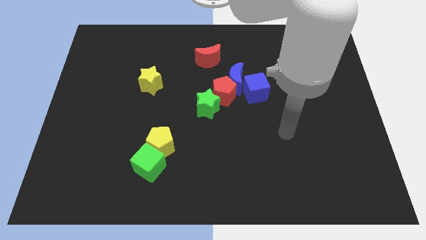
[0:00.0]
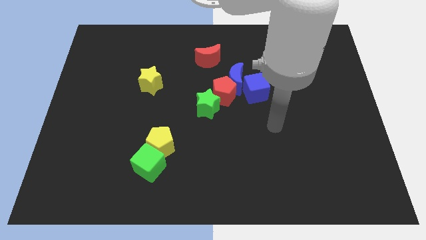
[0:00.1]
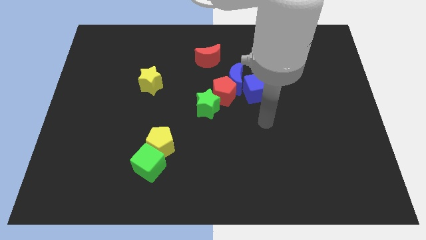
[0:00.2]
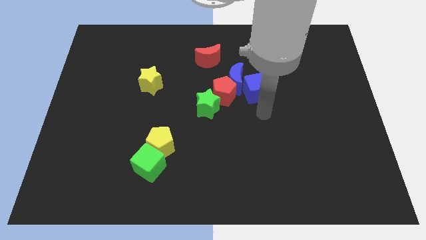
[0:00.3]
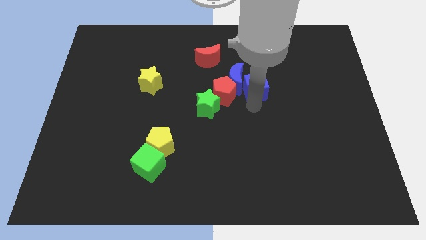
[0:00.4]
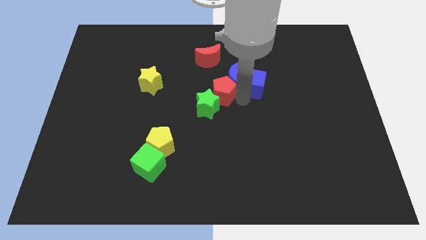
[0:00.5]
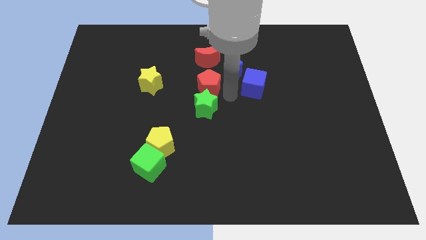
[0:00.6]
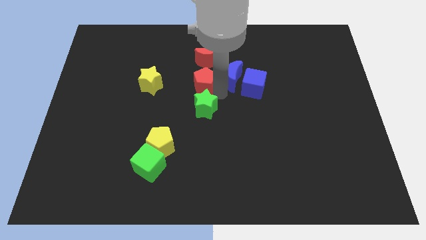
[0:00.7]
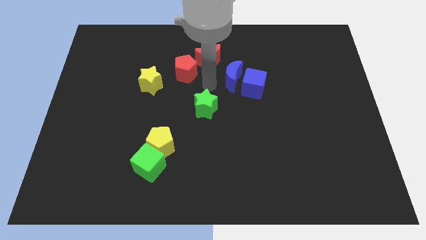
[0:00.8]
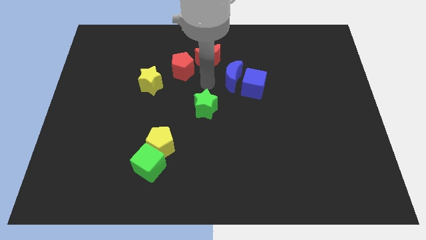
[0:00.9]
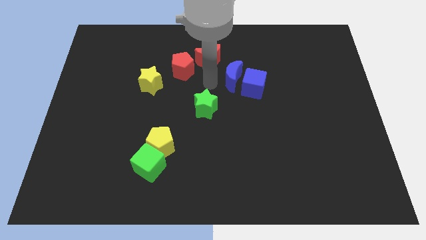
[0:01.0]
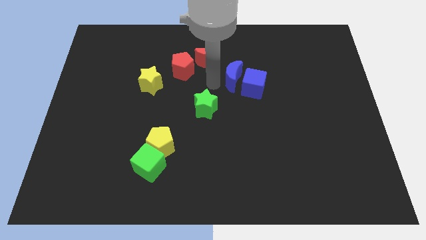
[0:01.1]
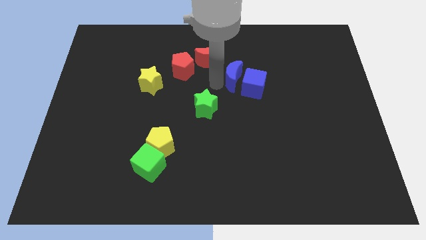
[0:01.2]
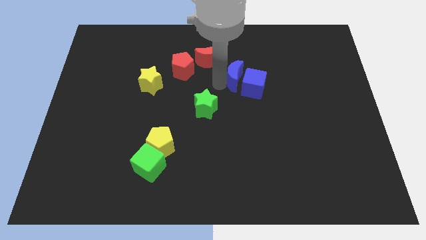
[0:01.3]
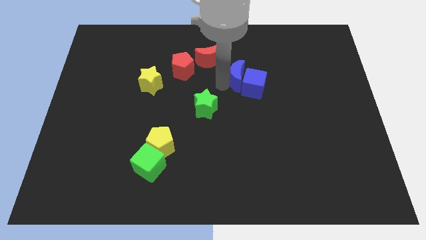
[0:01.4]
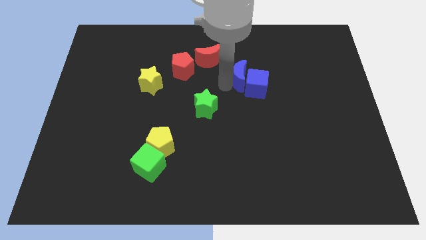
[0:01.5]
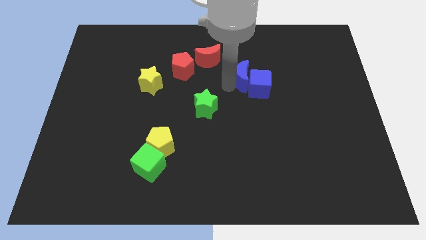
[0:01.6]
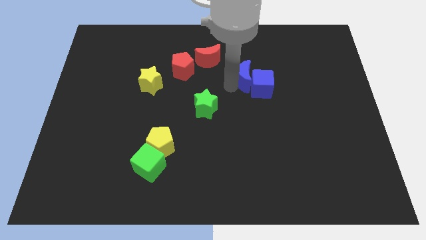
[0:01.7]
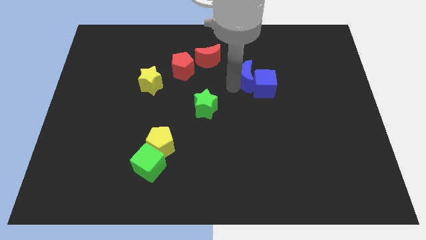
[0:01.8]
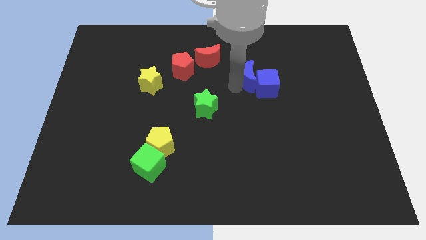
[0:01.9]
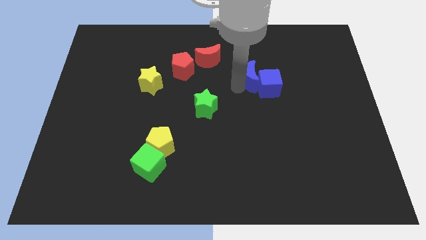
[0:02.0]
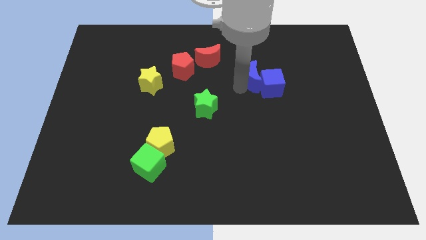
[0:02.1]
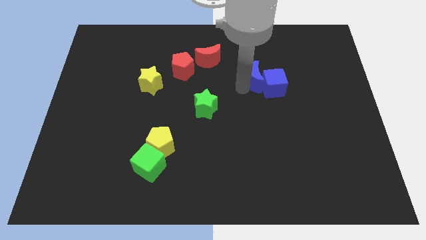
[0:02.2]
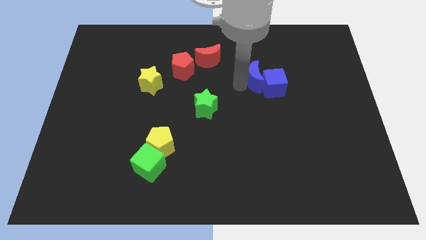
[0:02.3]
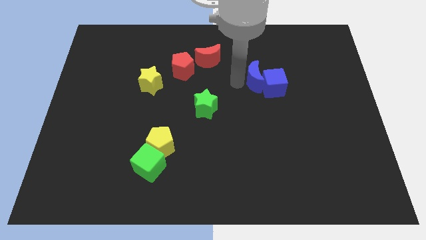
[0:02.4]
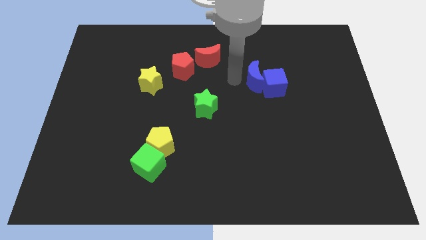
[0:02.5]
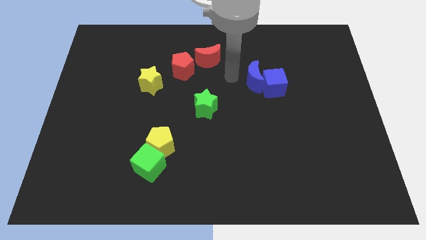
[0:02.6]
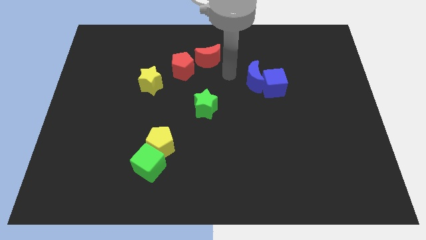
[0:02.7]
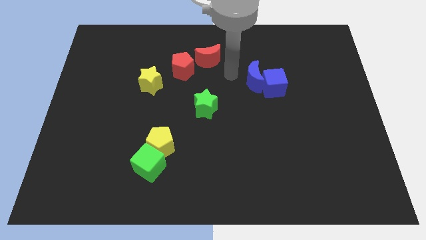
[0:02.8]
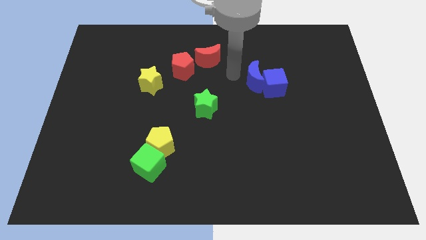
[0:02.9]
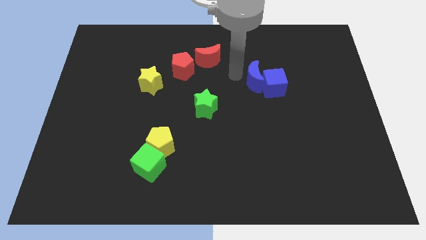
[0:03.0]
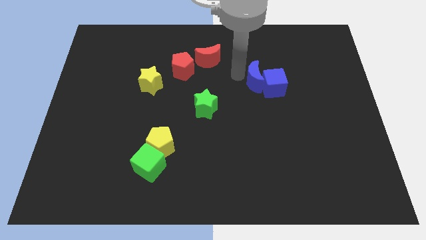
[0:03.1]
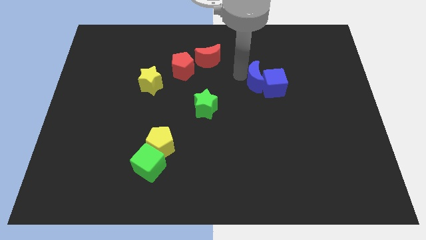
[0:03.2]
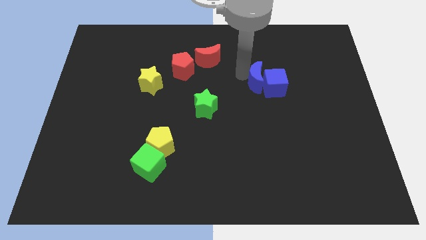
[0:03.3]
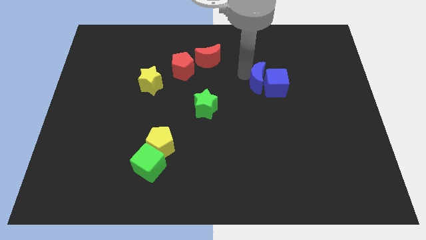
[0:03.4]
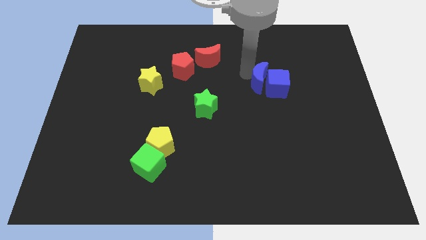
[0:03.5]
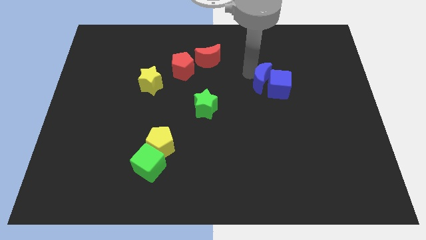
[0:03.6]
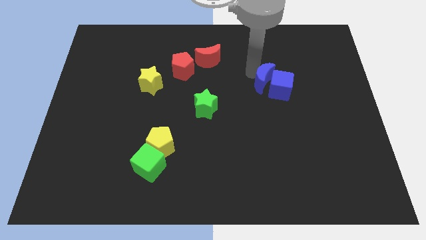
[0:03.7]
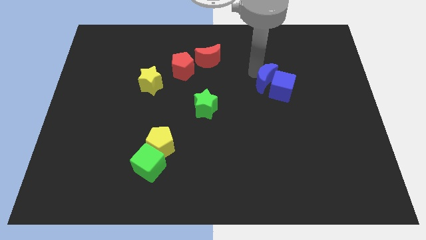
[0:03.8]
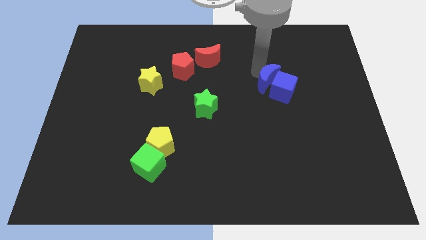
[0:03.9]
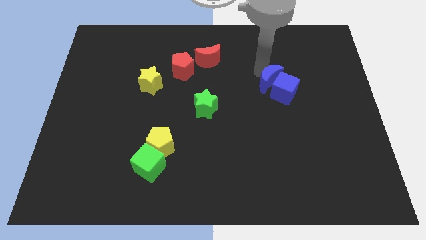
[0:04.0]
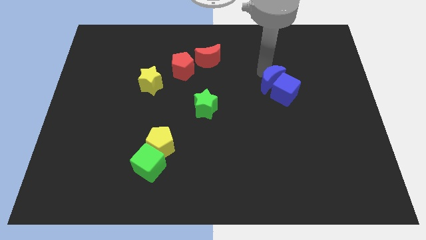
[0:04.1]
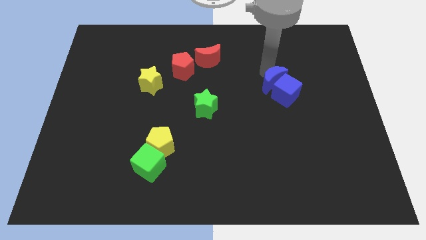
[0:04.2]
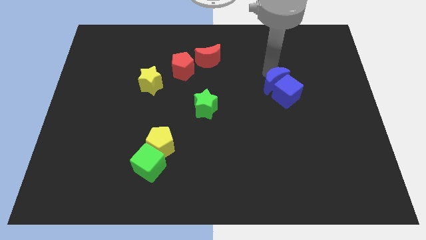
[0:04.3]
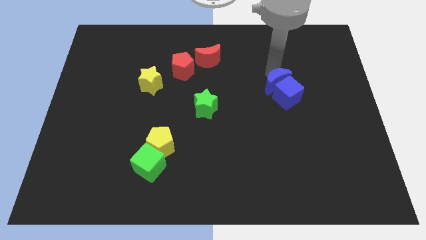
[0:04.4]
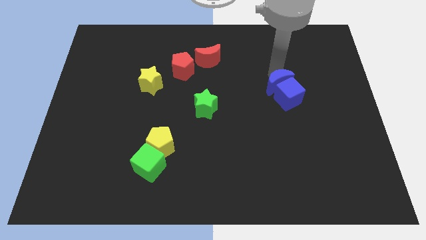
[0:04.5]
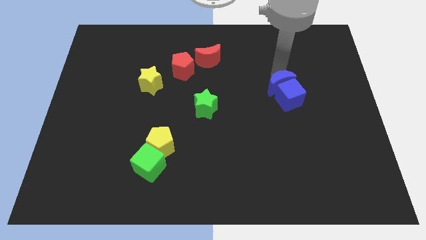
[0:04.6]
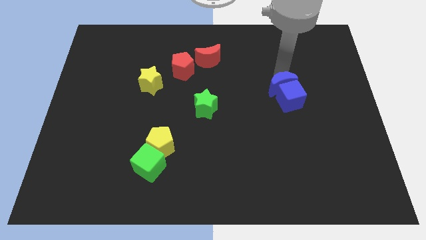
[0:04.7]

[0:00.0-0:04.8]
move the blue moon somewhat diagonally downwards and to the right

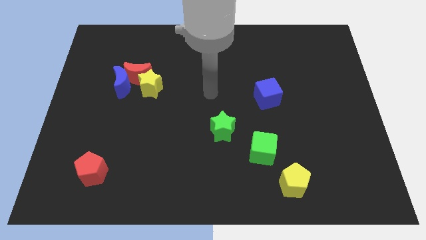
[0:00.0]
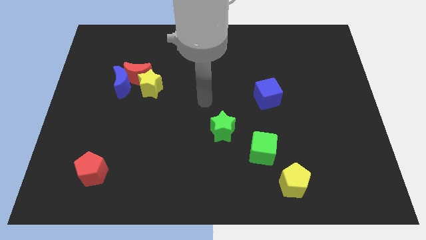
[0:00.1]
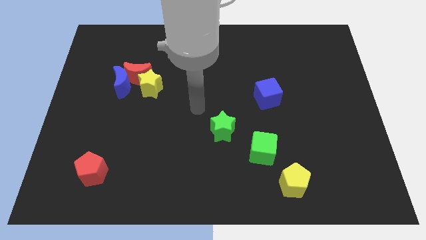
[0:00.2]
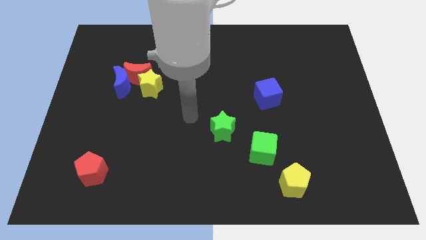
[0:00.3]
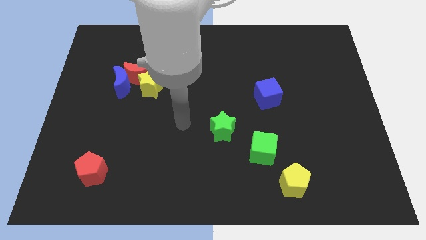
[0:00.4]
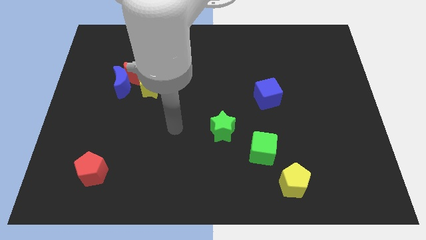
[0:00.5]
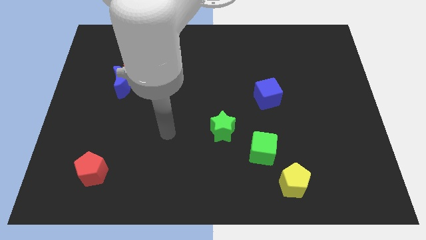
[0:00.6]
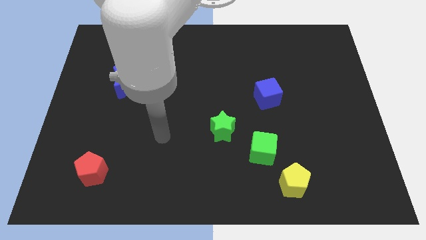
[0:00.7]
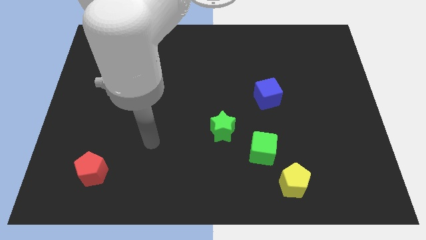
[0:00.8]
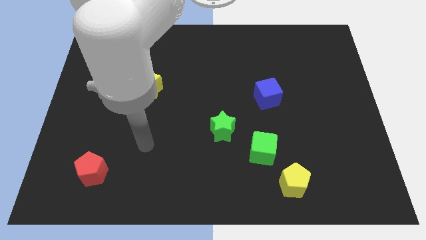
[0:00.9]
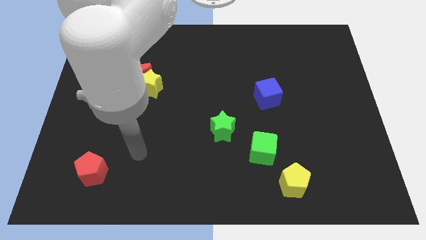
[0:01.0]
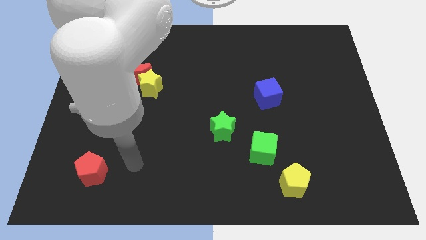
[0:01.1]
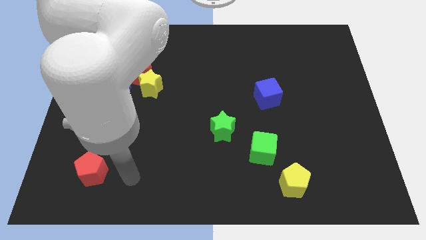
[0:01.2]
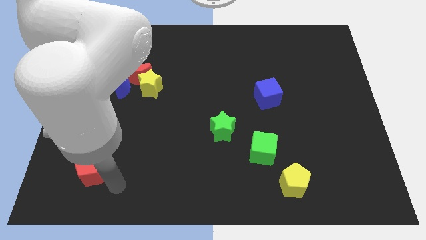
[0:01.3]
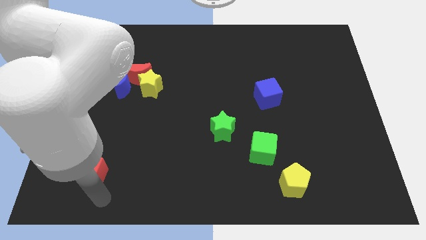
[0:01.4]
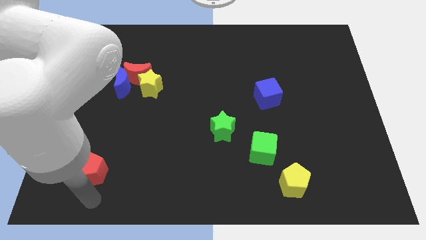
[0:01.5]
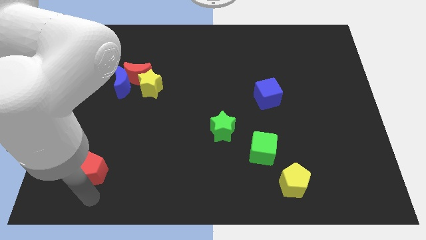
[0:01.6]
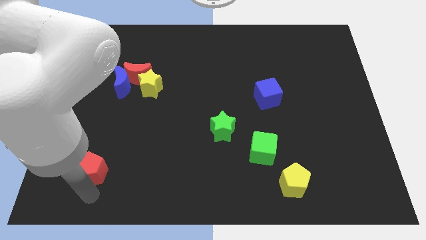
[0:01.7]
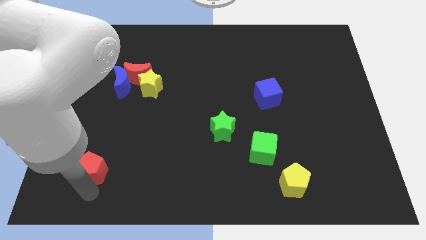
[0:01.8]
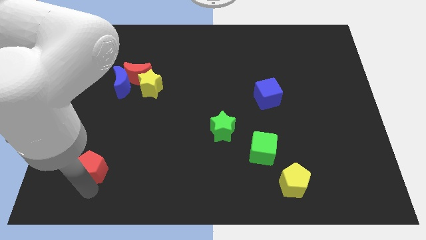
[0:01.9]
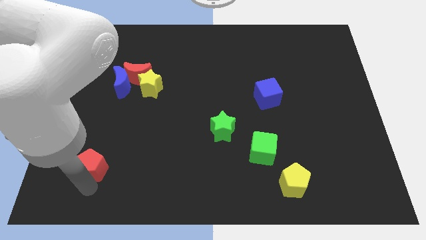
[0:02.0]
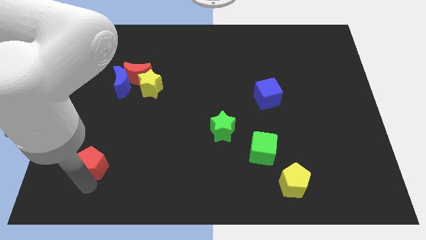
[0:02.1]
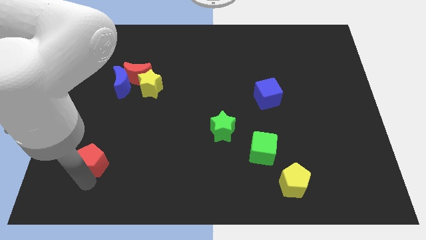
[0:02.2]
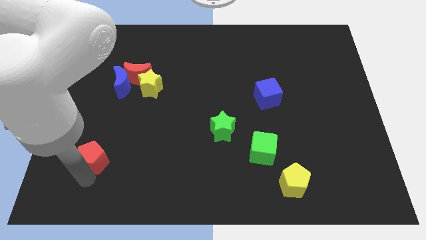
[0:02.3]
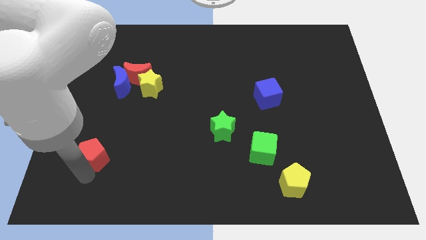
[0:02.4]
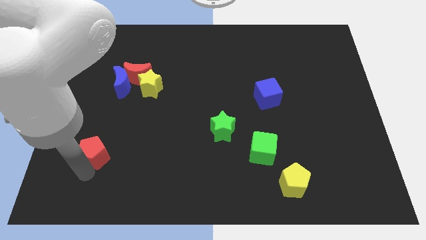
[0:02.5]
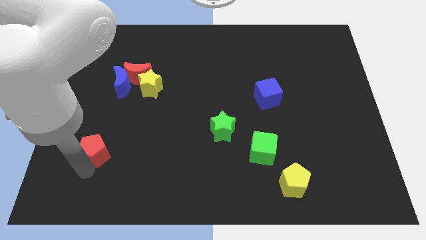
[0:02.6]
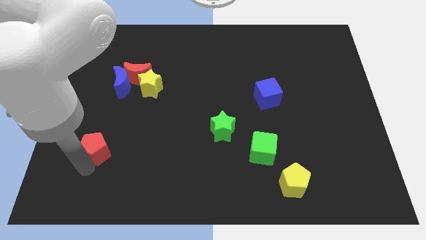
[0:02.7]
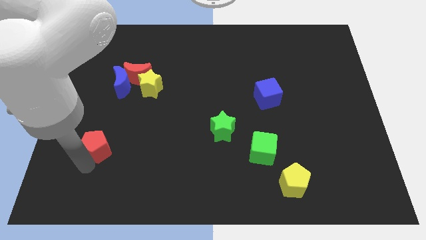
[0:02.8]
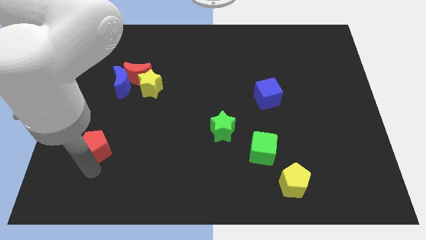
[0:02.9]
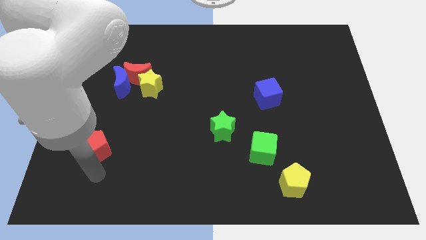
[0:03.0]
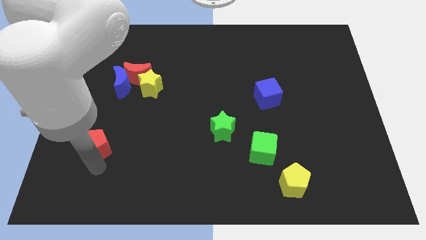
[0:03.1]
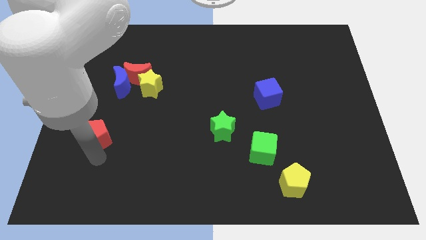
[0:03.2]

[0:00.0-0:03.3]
slightly push the red pentagon up
